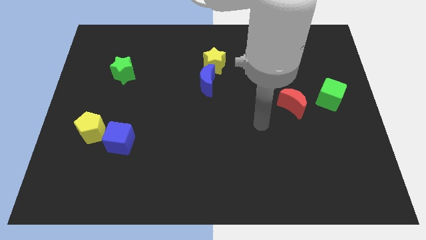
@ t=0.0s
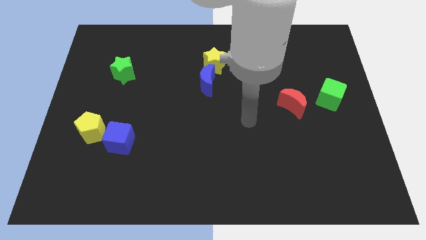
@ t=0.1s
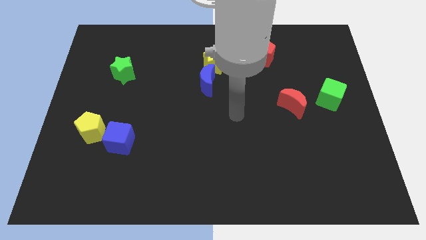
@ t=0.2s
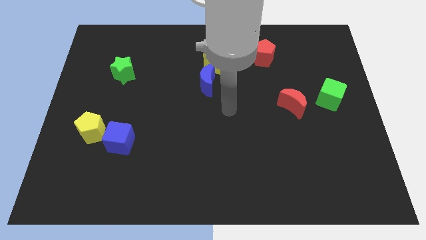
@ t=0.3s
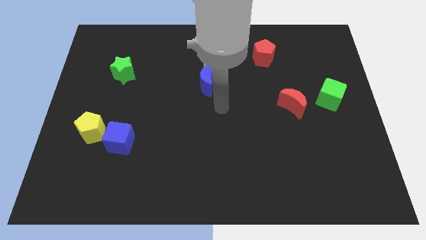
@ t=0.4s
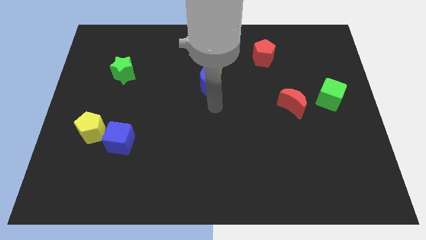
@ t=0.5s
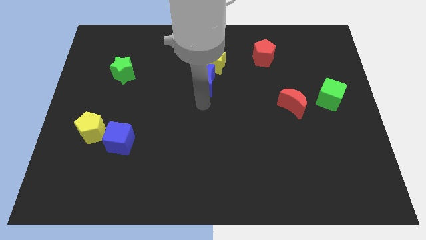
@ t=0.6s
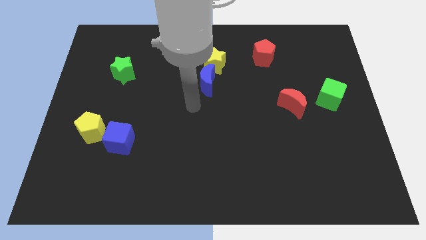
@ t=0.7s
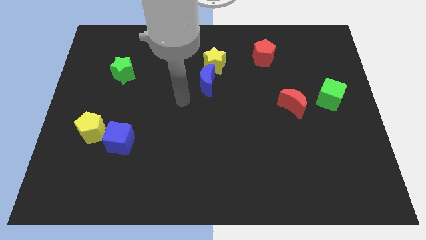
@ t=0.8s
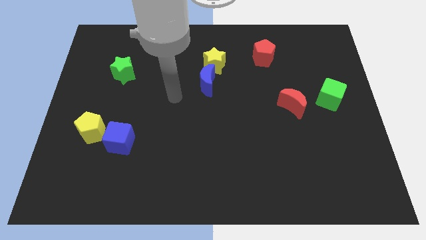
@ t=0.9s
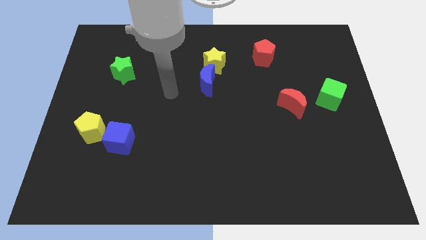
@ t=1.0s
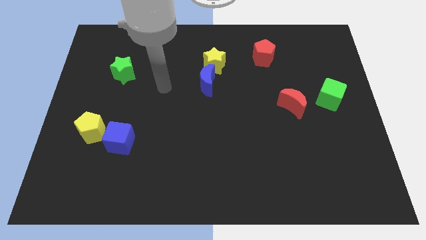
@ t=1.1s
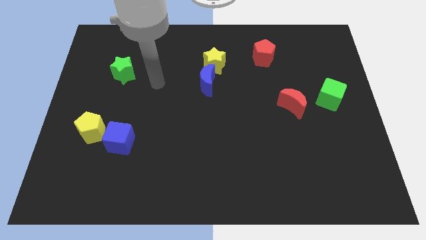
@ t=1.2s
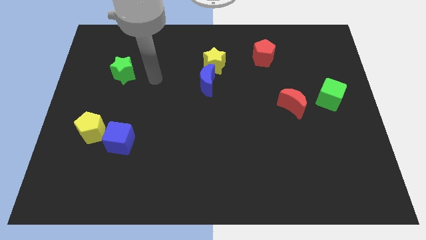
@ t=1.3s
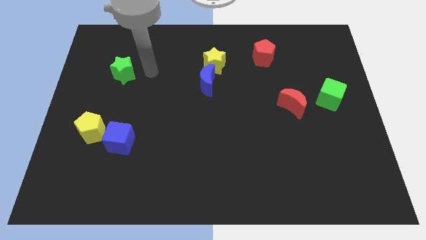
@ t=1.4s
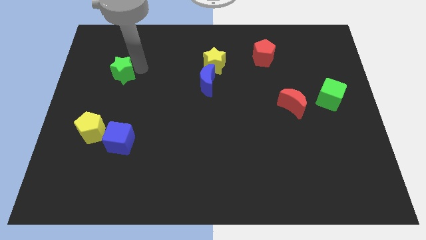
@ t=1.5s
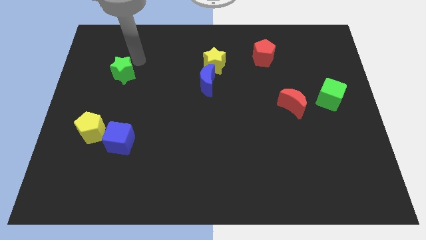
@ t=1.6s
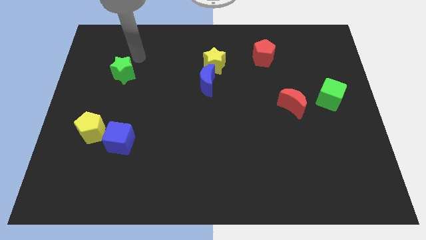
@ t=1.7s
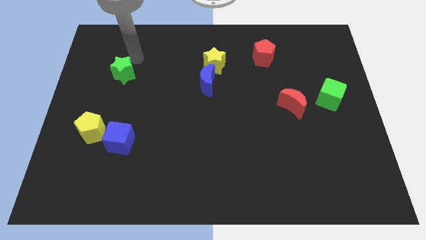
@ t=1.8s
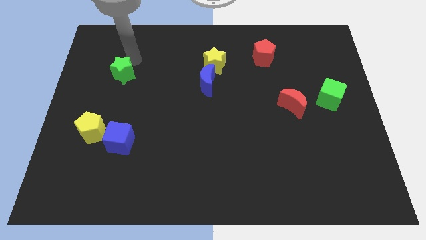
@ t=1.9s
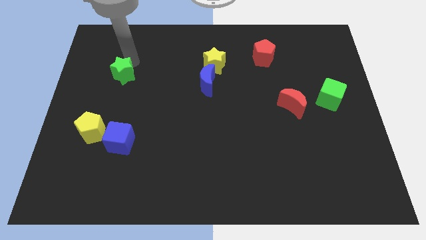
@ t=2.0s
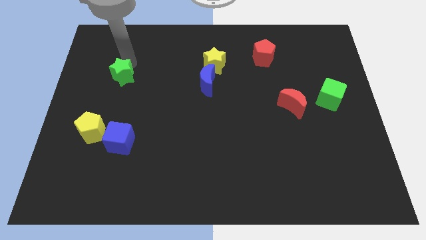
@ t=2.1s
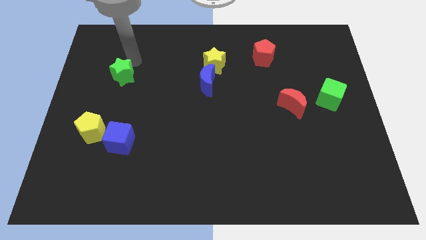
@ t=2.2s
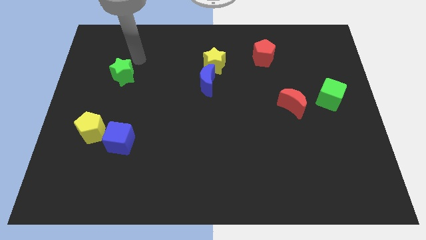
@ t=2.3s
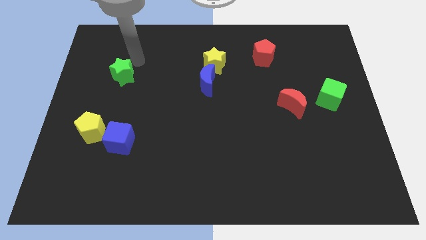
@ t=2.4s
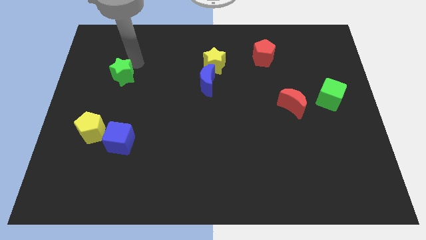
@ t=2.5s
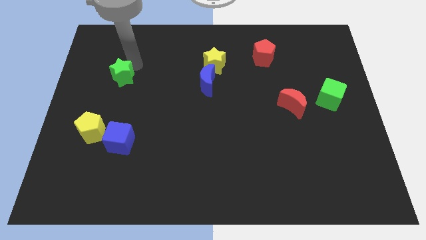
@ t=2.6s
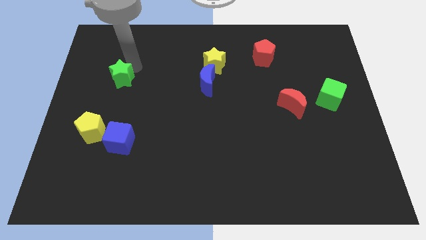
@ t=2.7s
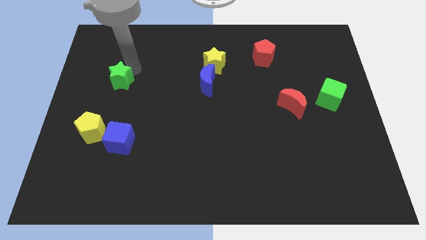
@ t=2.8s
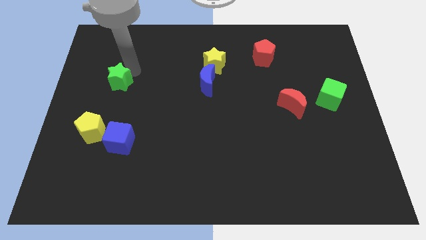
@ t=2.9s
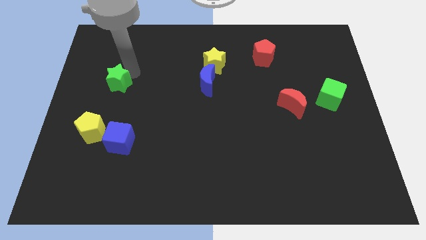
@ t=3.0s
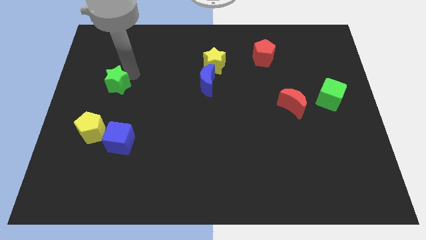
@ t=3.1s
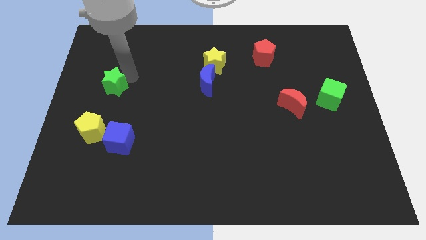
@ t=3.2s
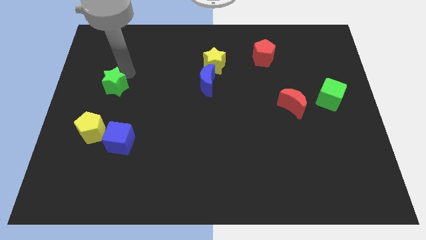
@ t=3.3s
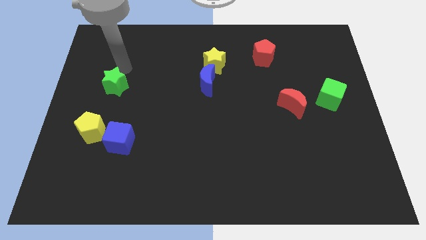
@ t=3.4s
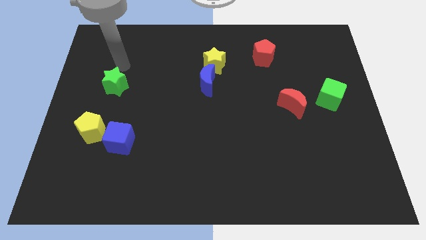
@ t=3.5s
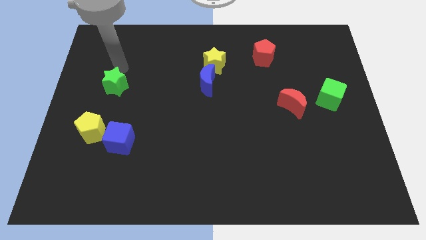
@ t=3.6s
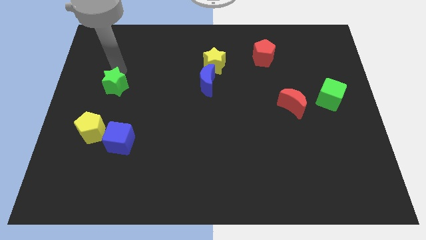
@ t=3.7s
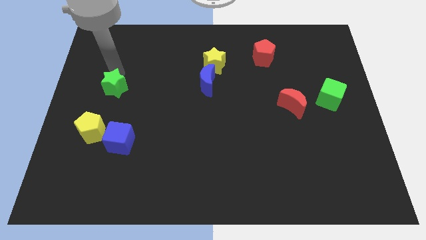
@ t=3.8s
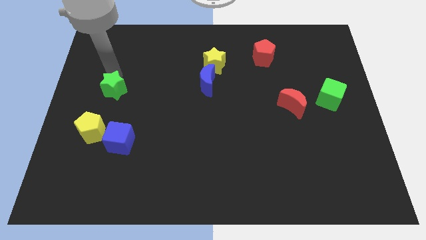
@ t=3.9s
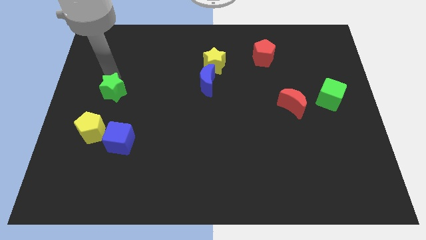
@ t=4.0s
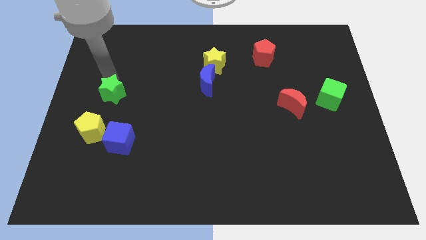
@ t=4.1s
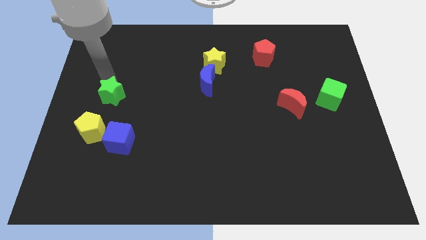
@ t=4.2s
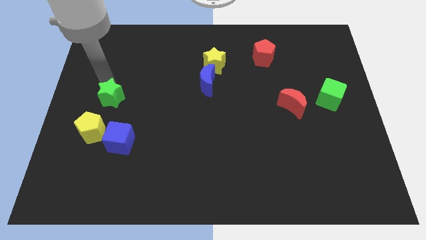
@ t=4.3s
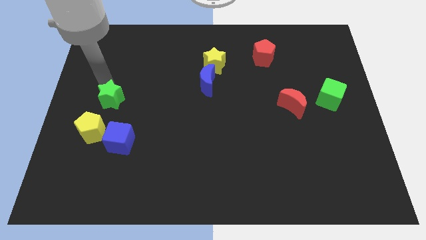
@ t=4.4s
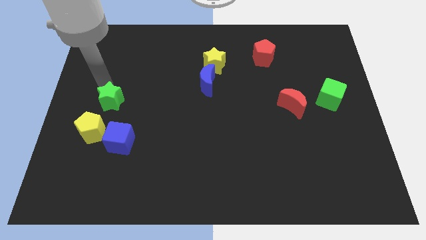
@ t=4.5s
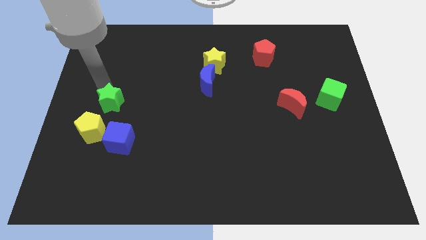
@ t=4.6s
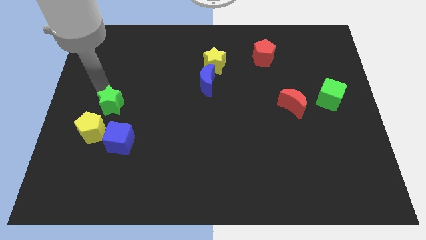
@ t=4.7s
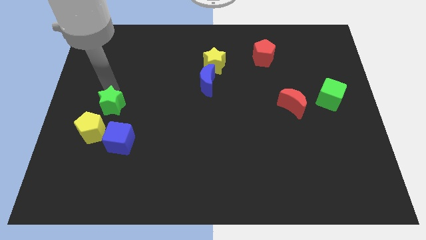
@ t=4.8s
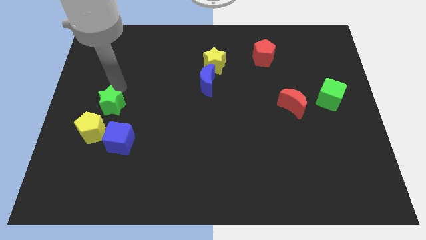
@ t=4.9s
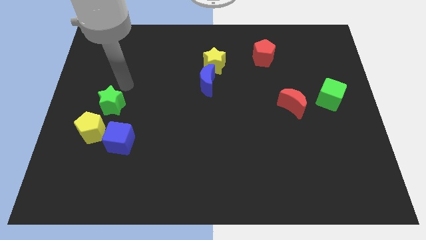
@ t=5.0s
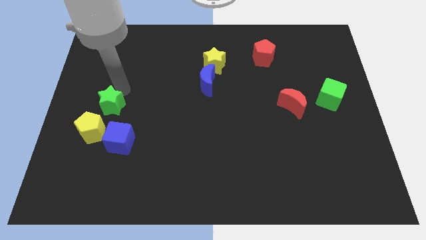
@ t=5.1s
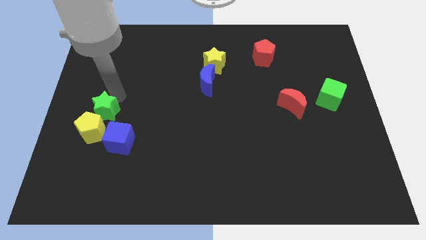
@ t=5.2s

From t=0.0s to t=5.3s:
move the green star to the yellow pentagon

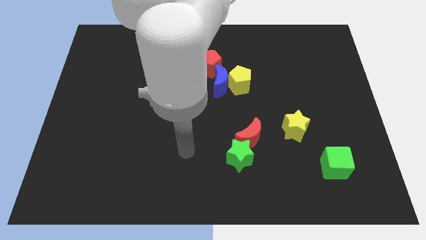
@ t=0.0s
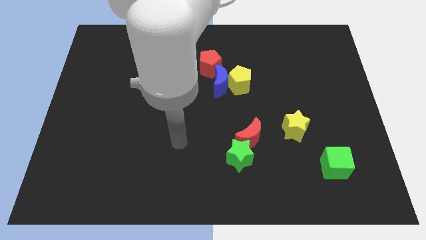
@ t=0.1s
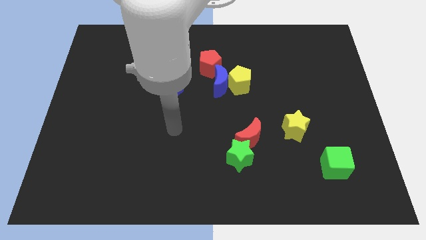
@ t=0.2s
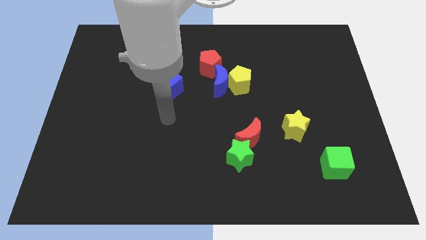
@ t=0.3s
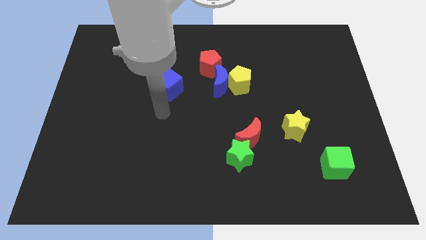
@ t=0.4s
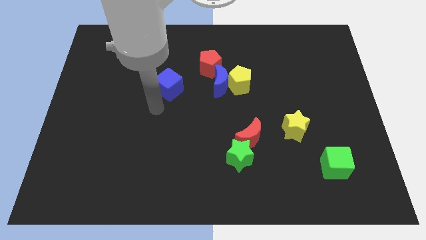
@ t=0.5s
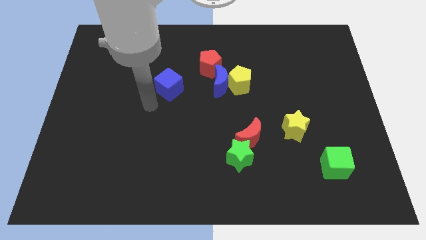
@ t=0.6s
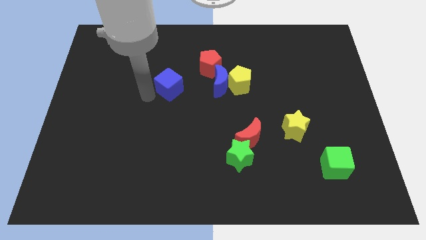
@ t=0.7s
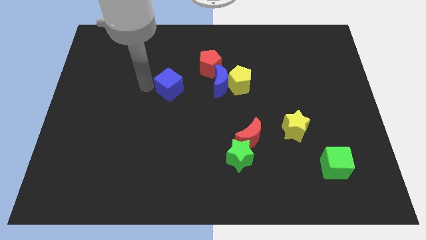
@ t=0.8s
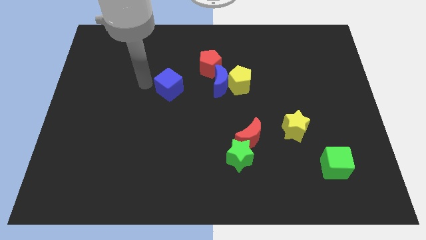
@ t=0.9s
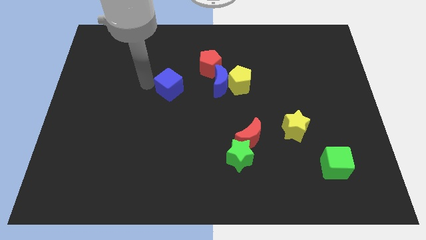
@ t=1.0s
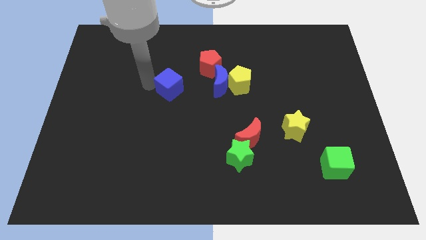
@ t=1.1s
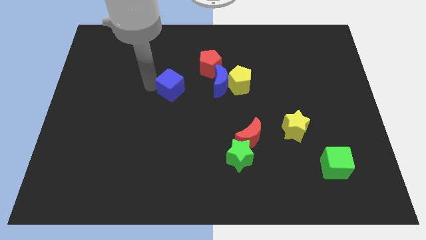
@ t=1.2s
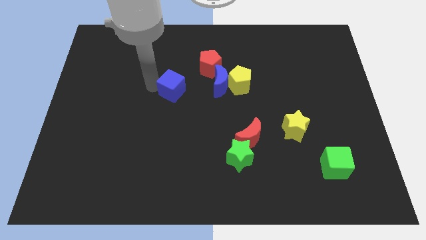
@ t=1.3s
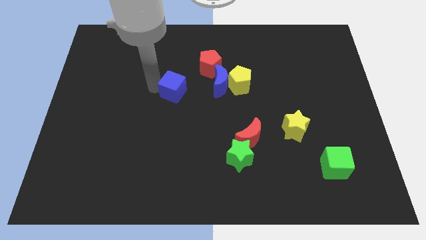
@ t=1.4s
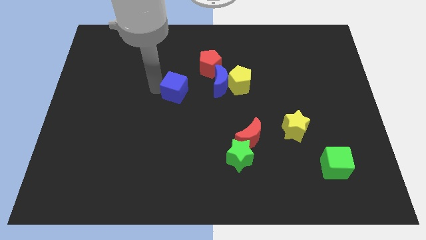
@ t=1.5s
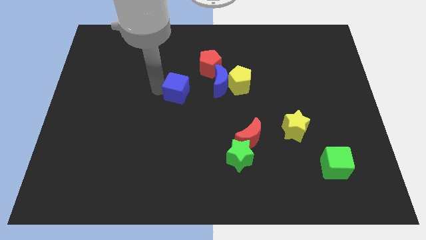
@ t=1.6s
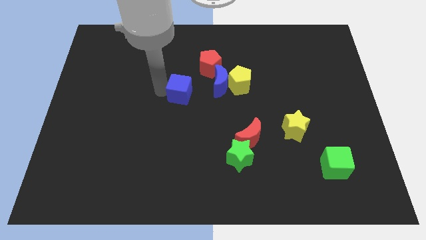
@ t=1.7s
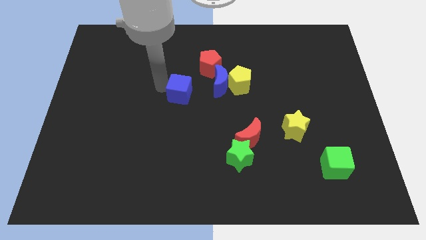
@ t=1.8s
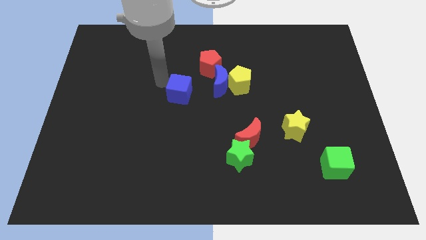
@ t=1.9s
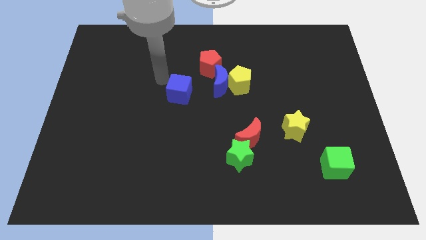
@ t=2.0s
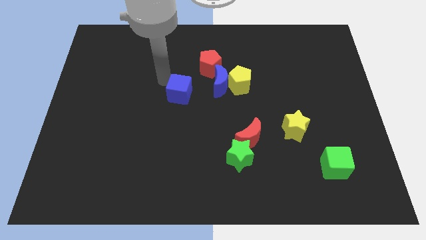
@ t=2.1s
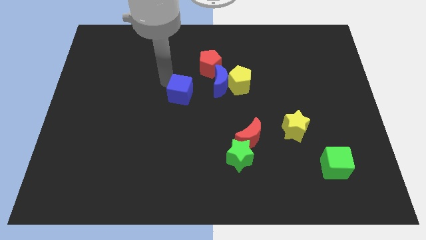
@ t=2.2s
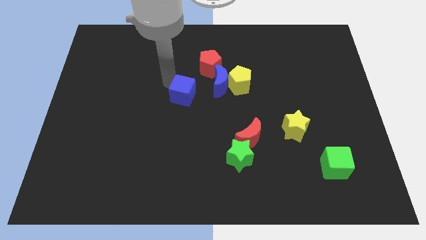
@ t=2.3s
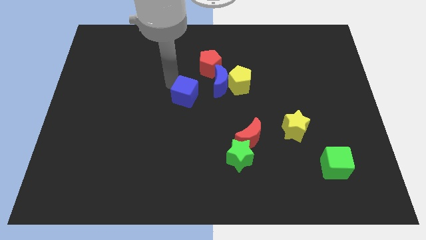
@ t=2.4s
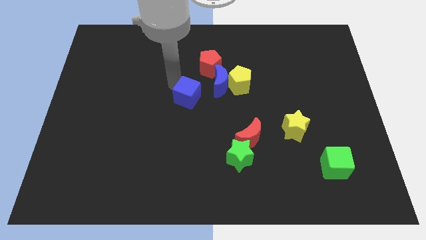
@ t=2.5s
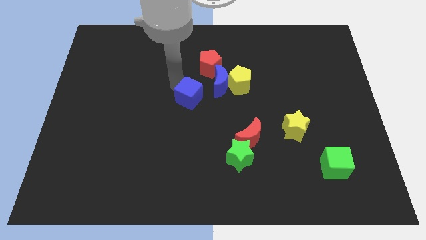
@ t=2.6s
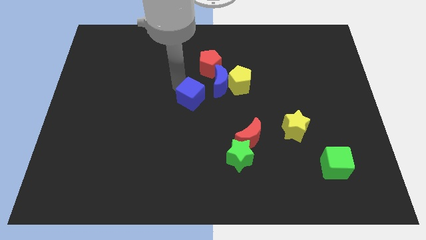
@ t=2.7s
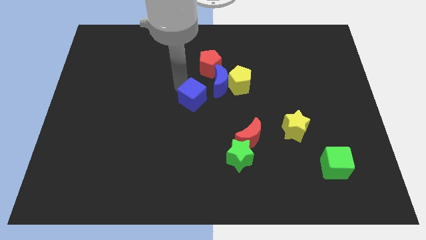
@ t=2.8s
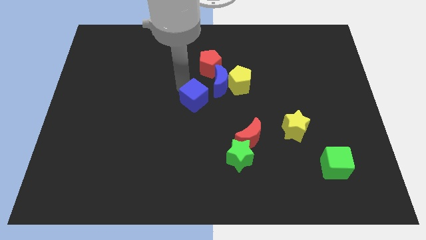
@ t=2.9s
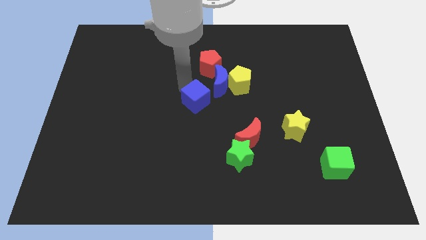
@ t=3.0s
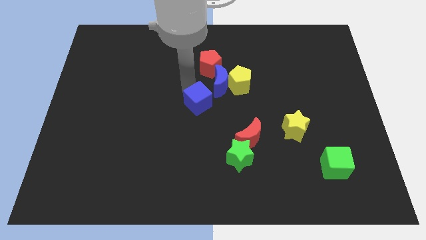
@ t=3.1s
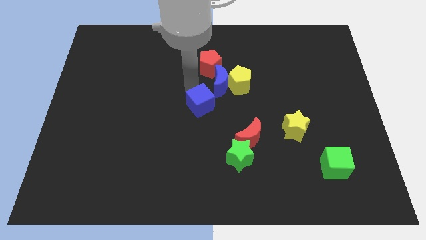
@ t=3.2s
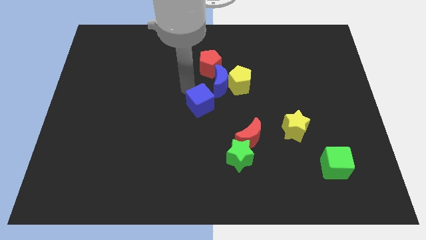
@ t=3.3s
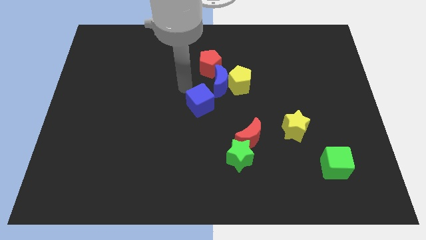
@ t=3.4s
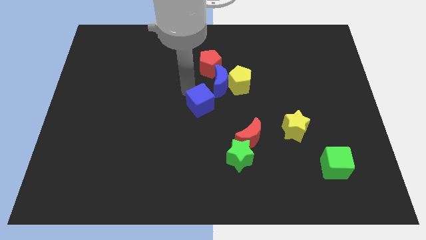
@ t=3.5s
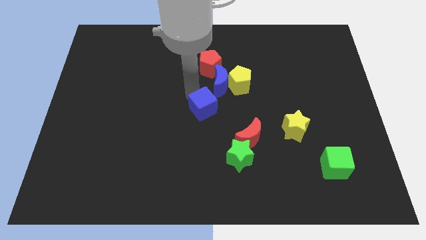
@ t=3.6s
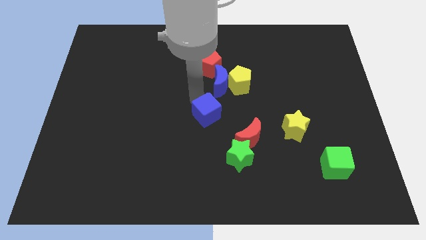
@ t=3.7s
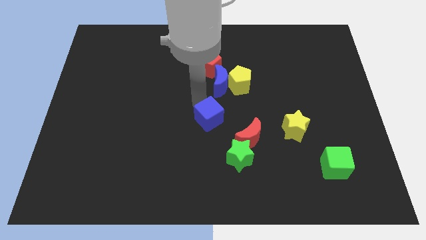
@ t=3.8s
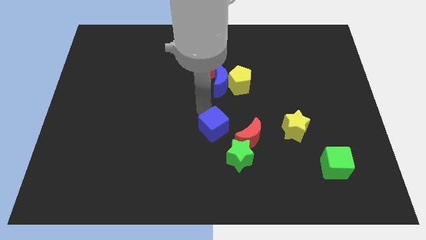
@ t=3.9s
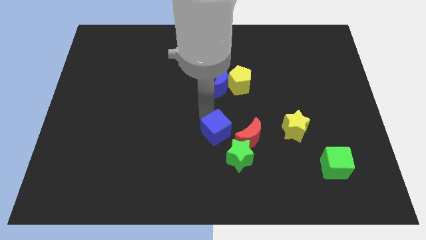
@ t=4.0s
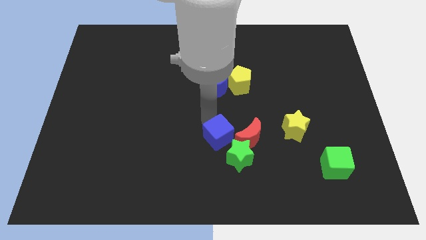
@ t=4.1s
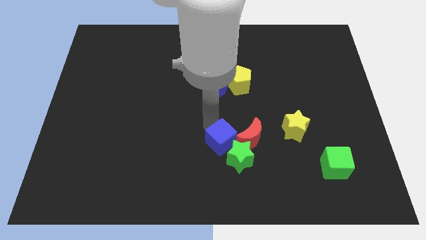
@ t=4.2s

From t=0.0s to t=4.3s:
move the blue cube towards the green star
